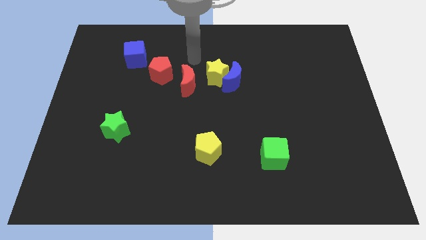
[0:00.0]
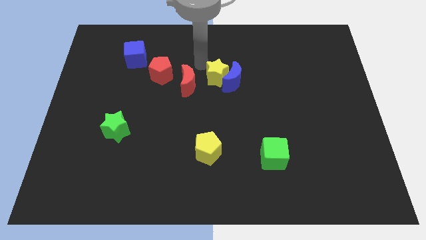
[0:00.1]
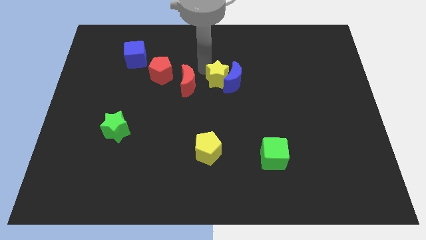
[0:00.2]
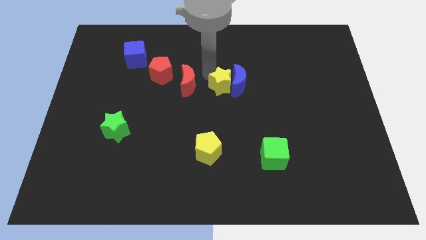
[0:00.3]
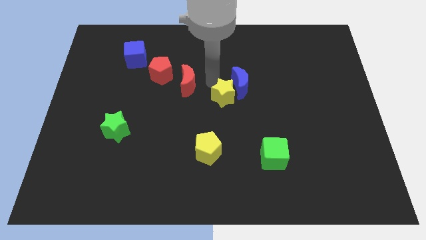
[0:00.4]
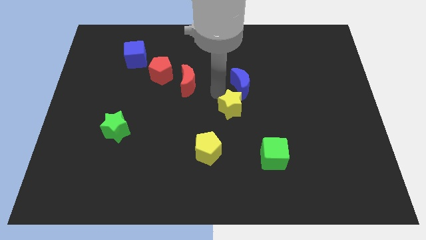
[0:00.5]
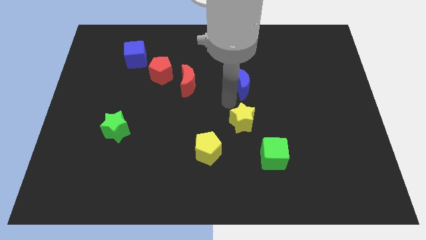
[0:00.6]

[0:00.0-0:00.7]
separate the blue moon from the yellow star

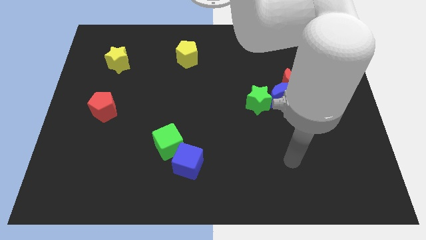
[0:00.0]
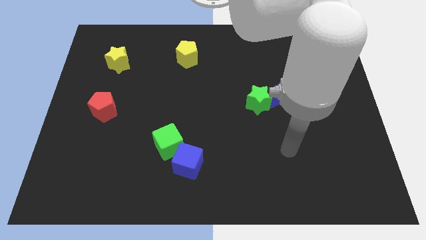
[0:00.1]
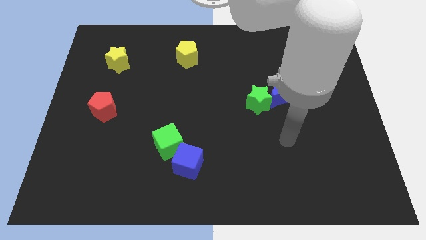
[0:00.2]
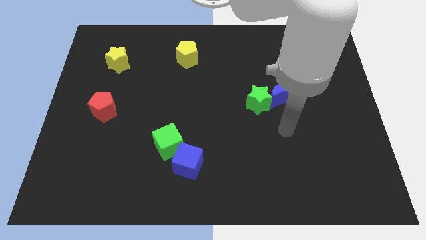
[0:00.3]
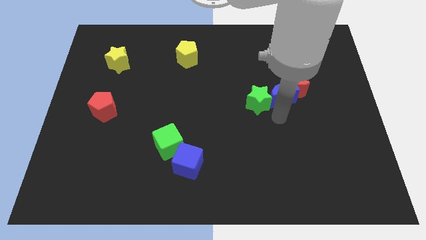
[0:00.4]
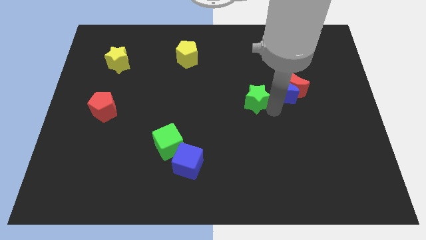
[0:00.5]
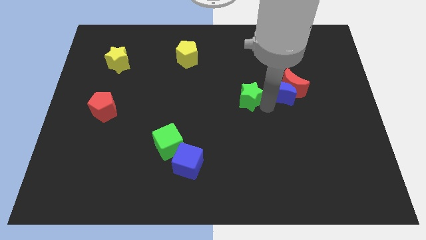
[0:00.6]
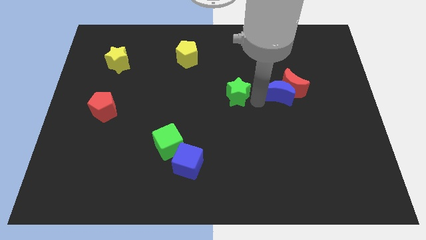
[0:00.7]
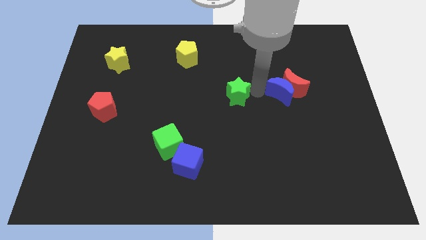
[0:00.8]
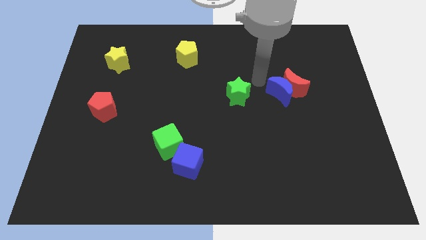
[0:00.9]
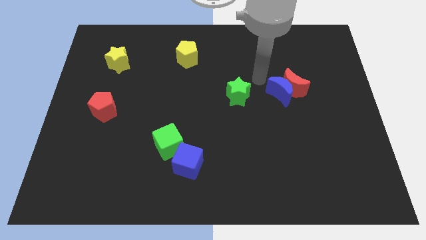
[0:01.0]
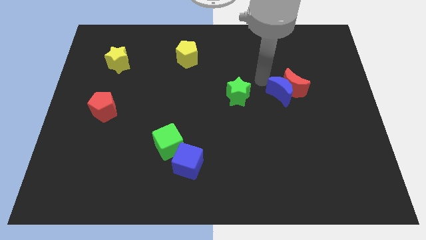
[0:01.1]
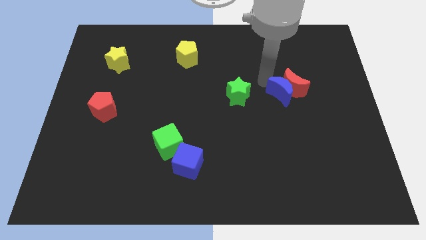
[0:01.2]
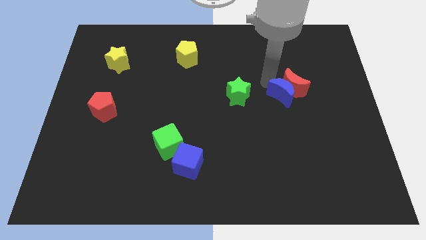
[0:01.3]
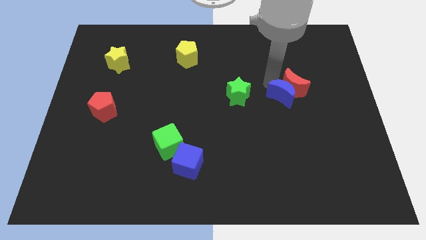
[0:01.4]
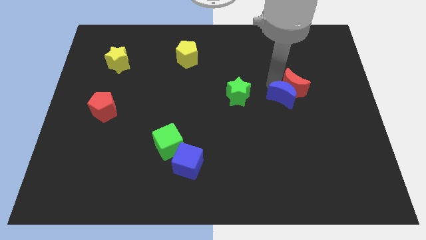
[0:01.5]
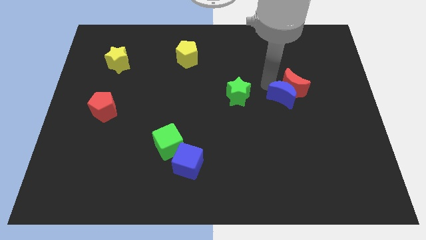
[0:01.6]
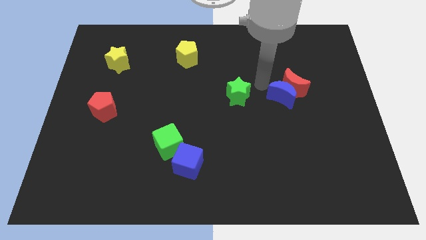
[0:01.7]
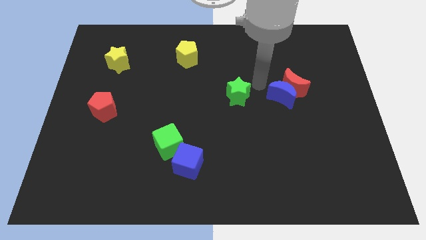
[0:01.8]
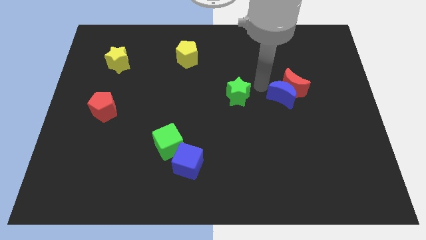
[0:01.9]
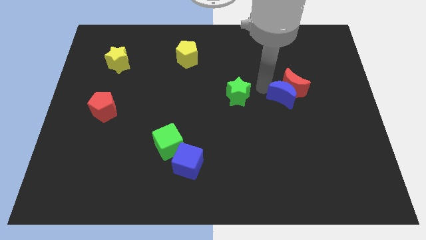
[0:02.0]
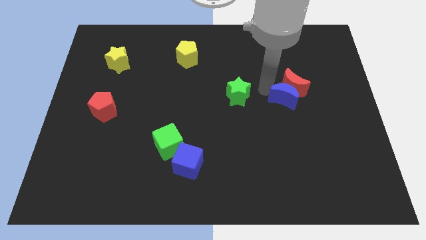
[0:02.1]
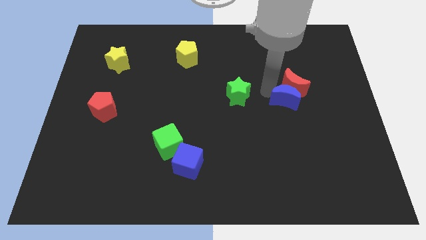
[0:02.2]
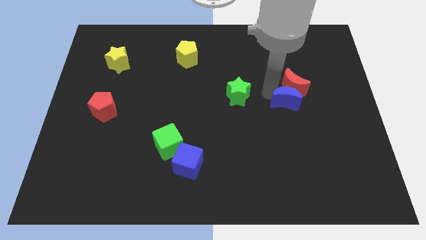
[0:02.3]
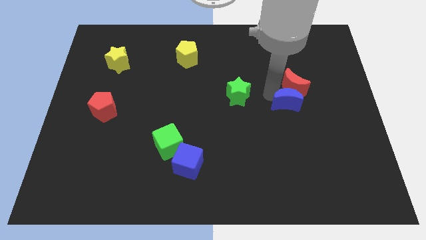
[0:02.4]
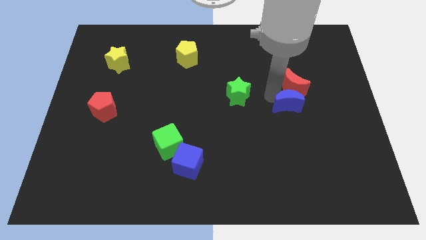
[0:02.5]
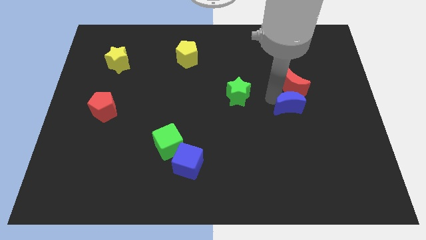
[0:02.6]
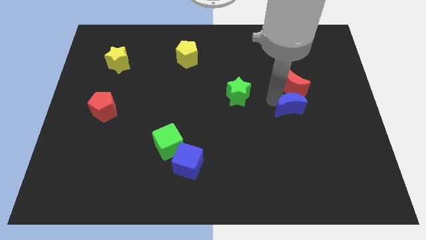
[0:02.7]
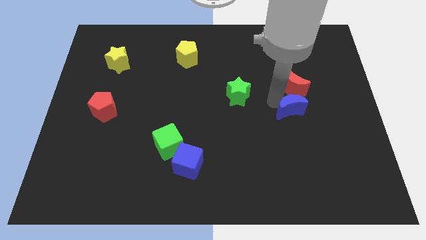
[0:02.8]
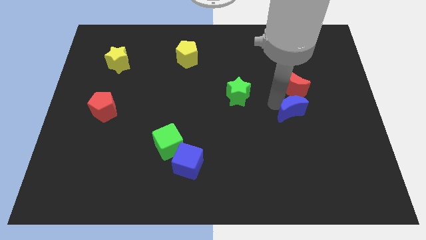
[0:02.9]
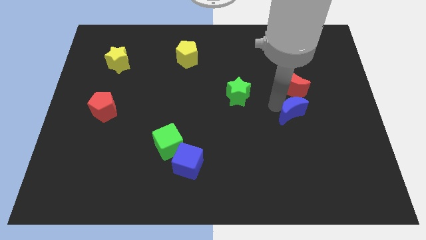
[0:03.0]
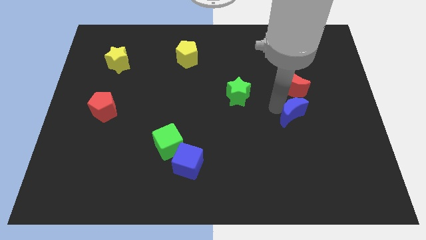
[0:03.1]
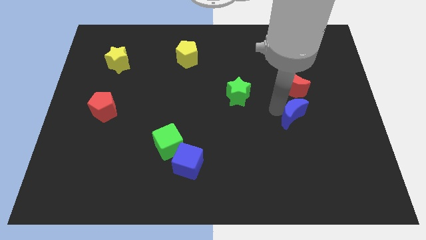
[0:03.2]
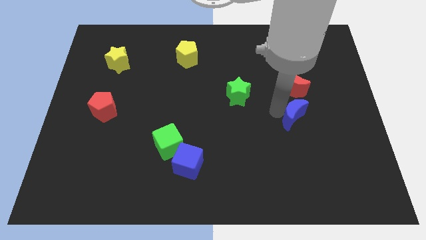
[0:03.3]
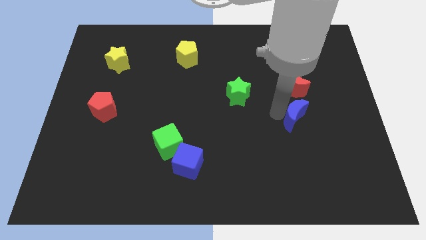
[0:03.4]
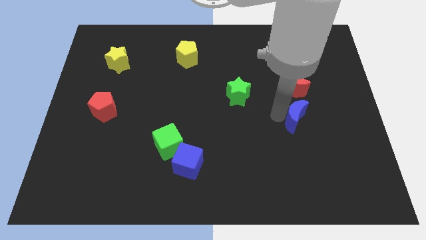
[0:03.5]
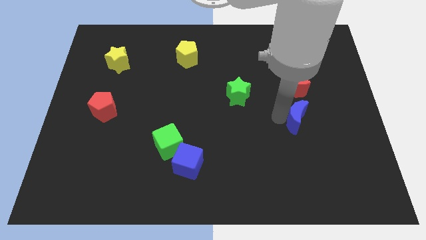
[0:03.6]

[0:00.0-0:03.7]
move the blue moon away from the red moon and green star

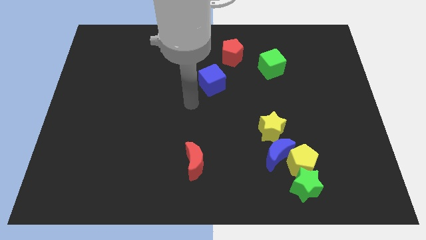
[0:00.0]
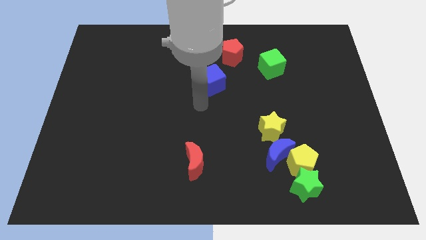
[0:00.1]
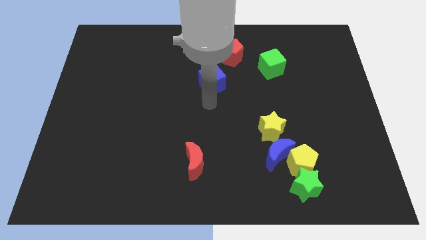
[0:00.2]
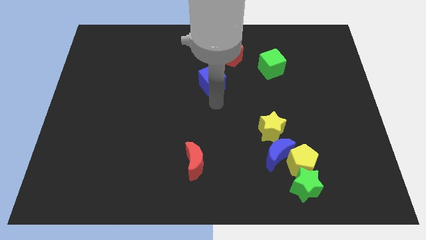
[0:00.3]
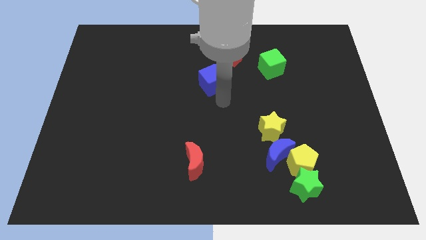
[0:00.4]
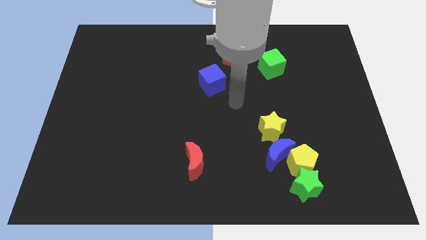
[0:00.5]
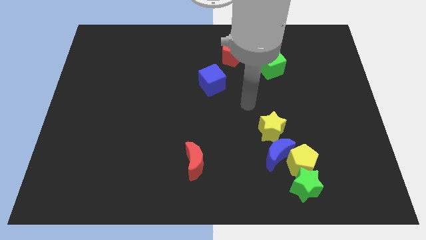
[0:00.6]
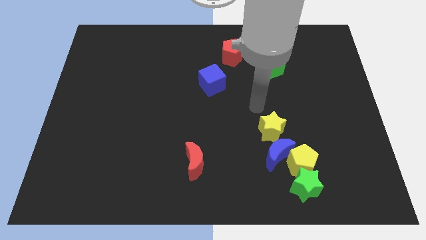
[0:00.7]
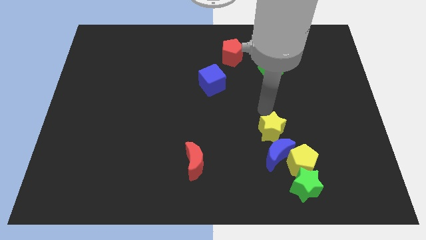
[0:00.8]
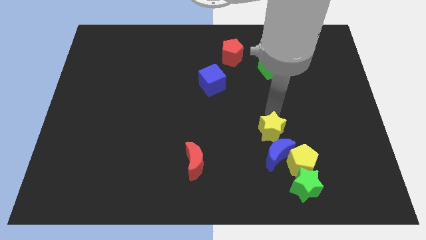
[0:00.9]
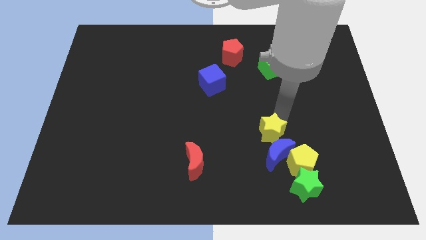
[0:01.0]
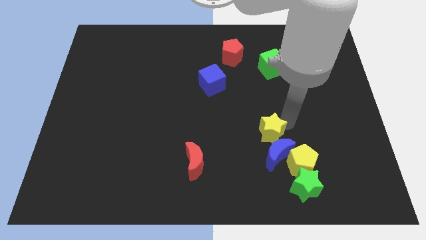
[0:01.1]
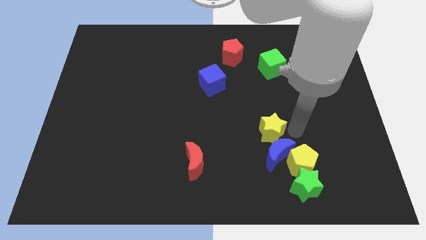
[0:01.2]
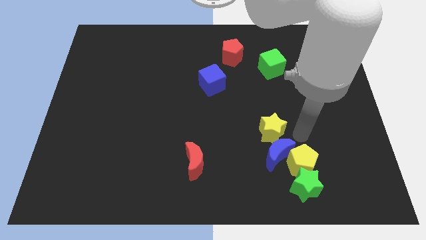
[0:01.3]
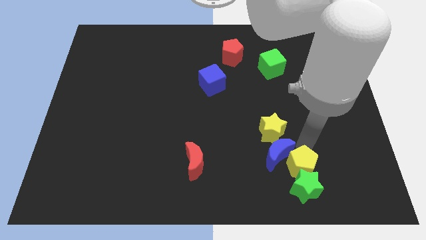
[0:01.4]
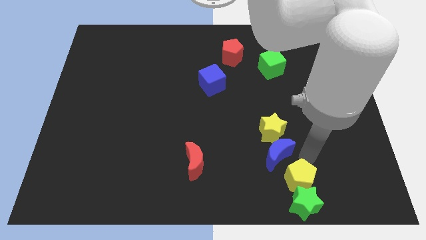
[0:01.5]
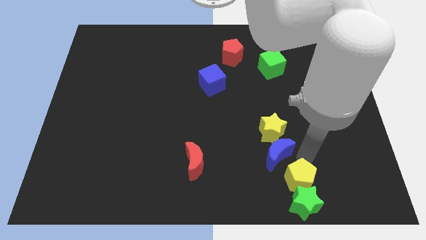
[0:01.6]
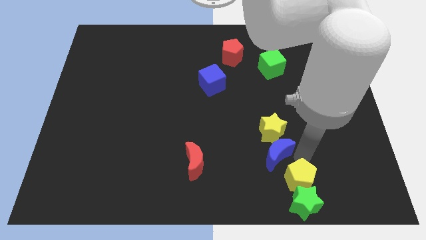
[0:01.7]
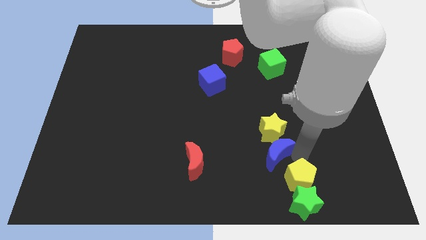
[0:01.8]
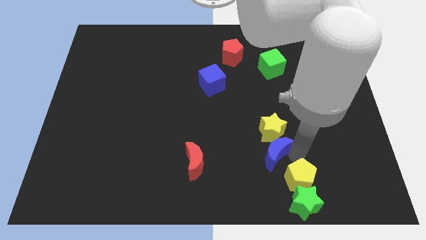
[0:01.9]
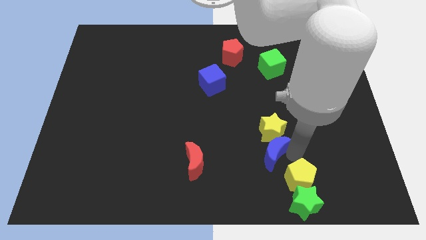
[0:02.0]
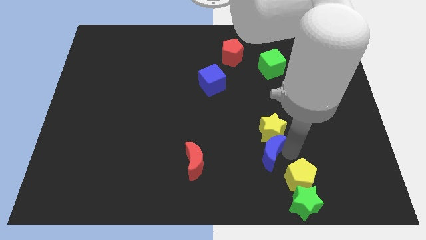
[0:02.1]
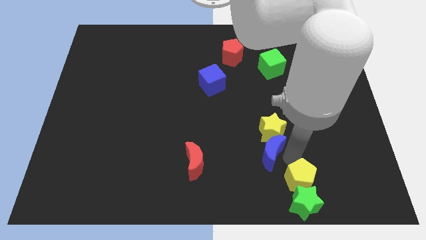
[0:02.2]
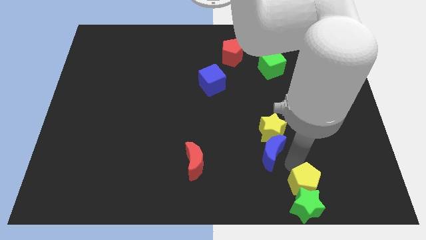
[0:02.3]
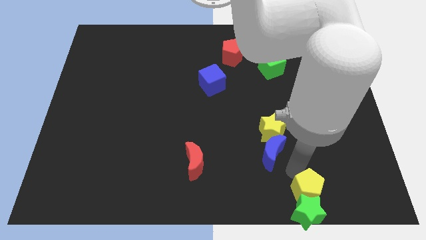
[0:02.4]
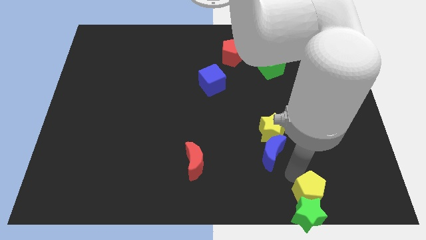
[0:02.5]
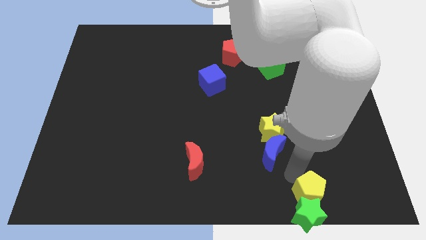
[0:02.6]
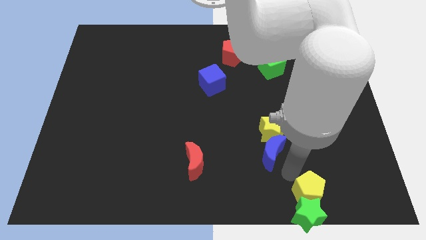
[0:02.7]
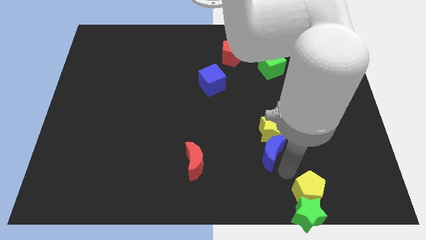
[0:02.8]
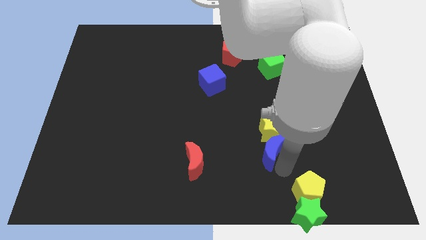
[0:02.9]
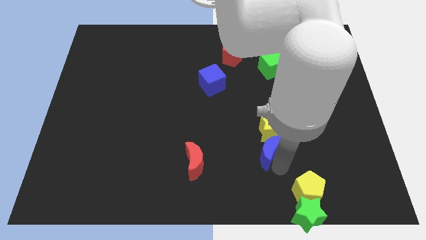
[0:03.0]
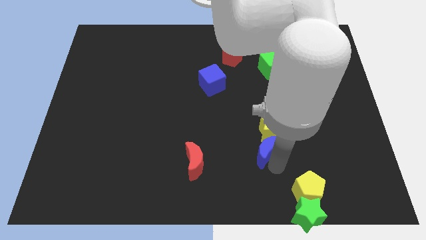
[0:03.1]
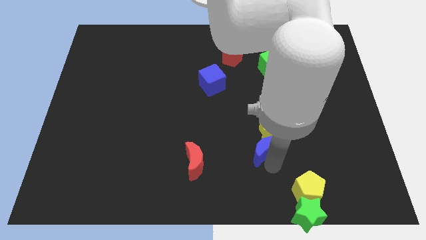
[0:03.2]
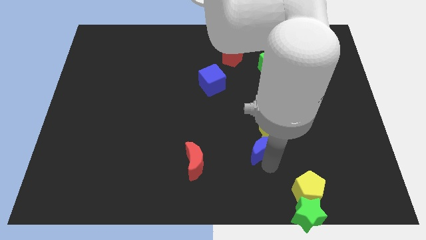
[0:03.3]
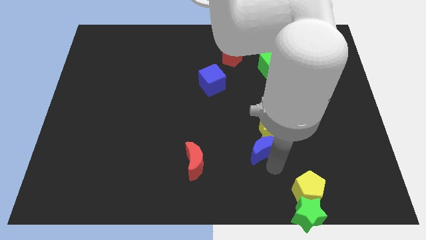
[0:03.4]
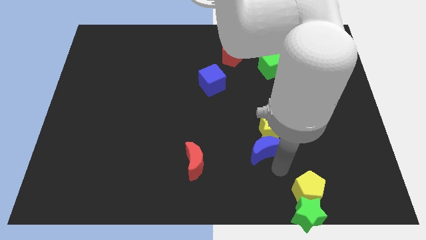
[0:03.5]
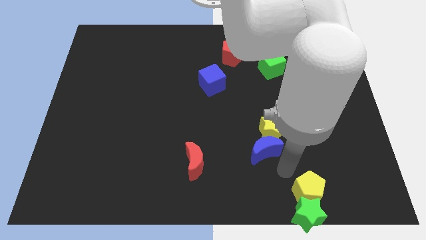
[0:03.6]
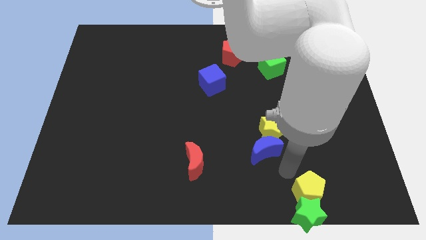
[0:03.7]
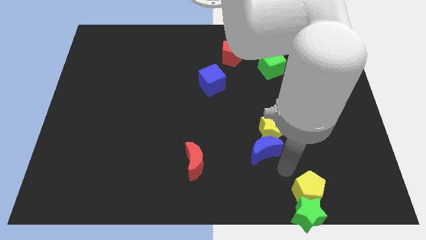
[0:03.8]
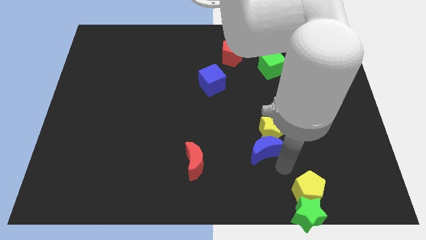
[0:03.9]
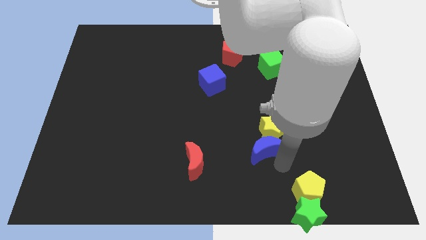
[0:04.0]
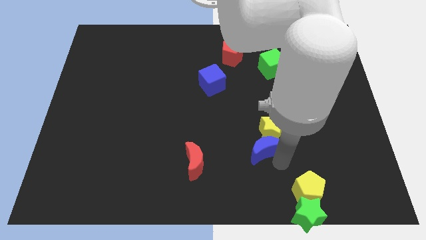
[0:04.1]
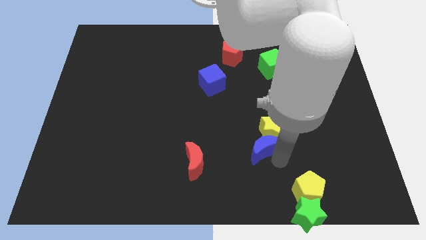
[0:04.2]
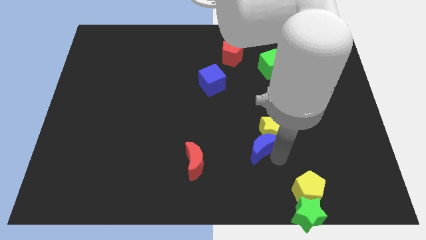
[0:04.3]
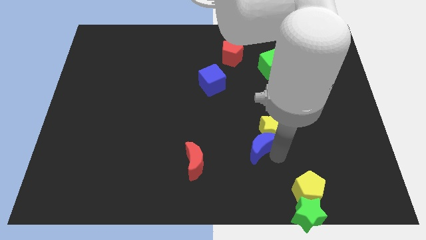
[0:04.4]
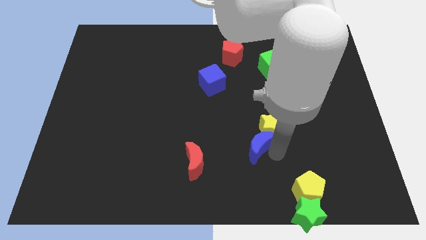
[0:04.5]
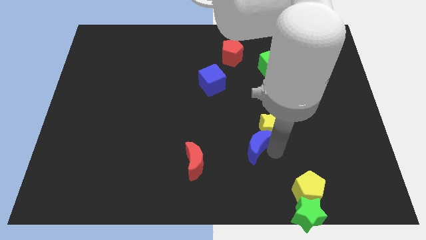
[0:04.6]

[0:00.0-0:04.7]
separate the blue moon from the group

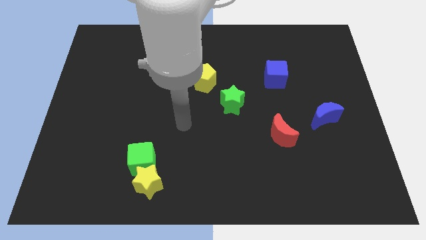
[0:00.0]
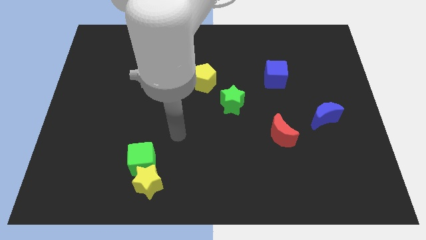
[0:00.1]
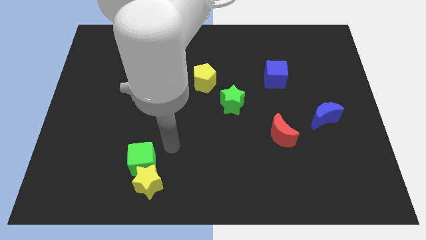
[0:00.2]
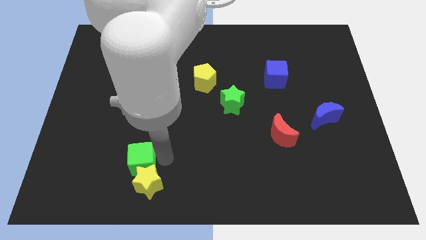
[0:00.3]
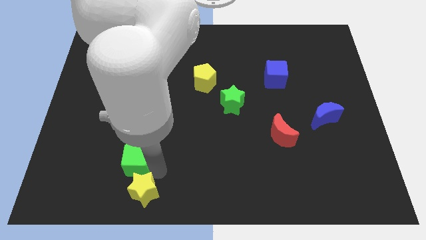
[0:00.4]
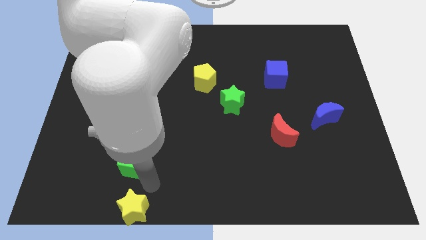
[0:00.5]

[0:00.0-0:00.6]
separate the green cube from the yellow star
